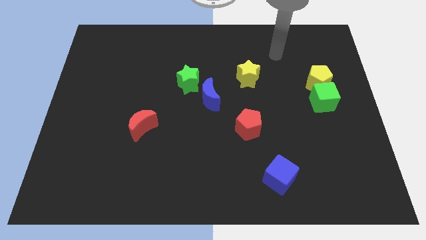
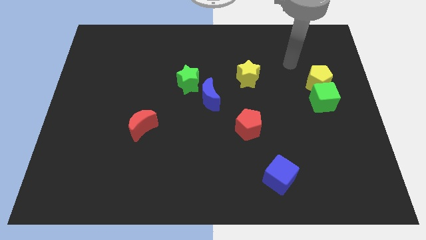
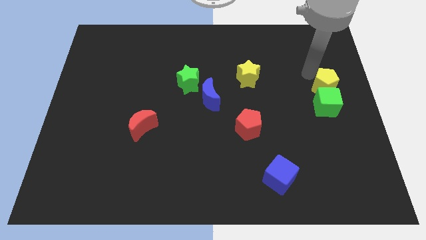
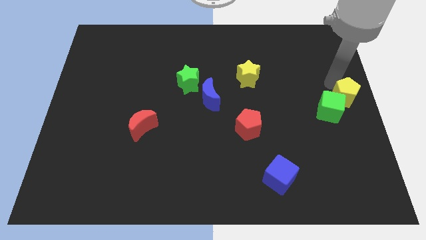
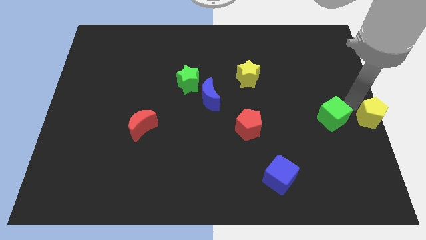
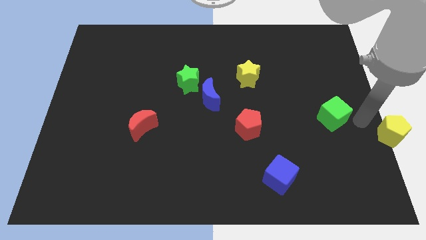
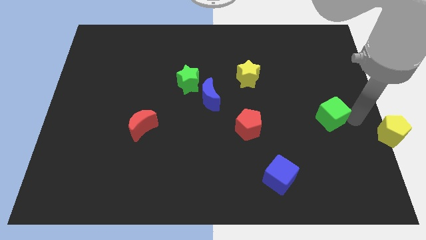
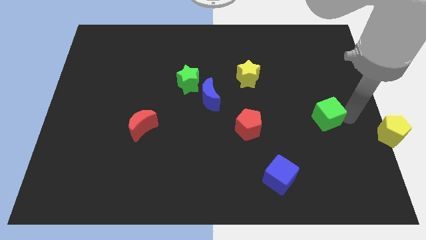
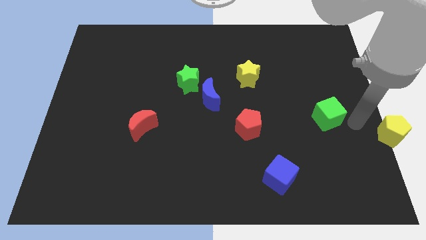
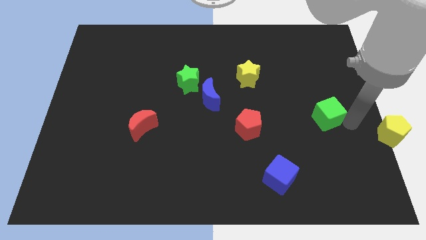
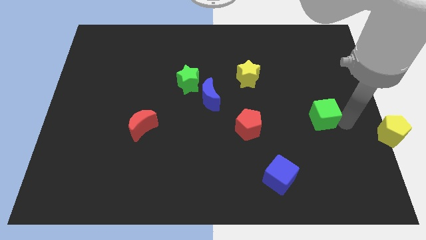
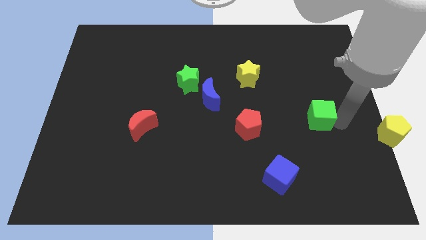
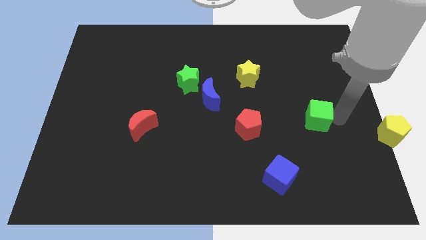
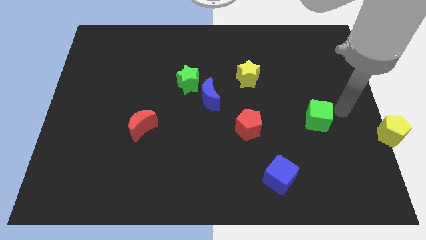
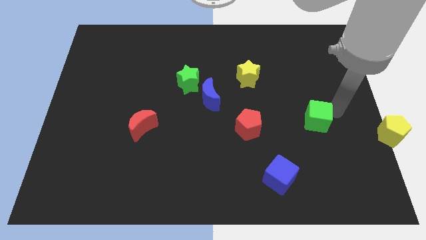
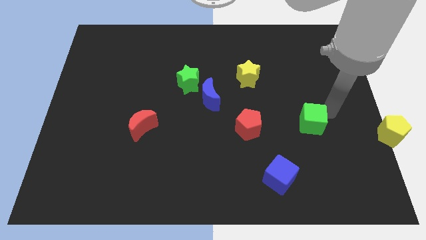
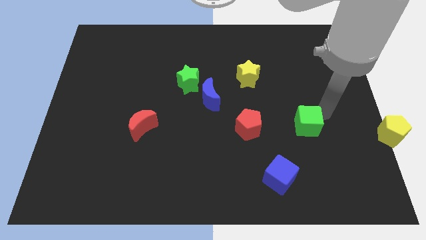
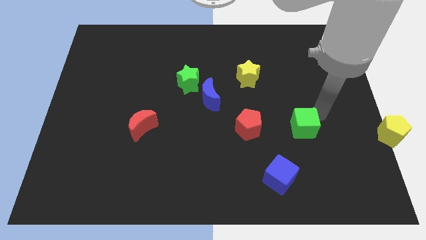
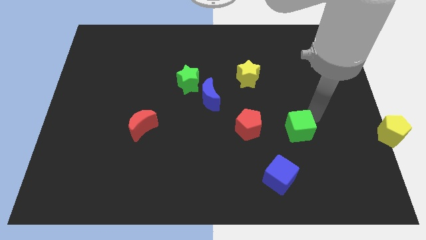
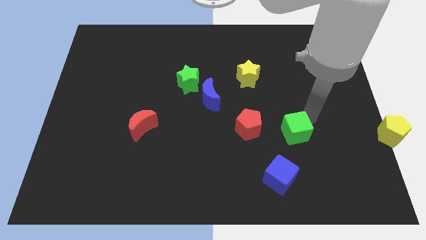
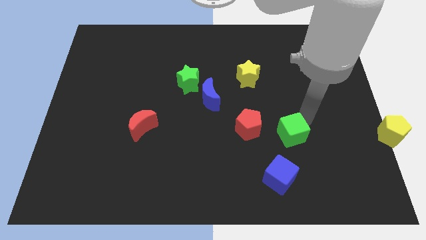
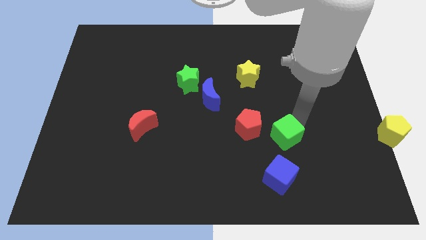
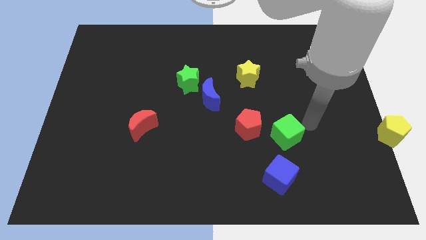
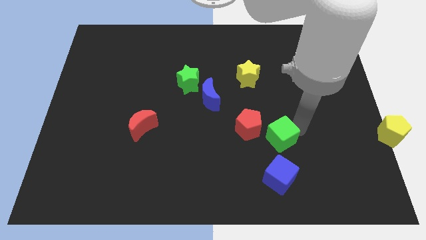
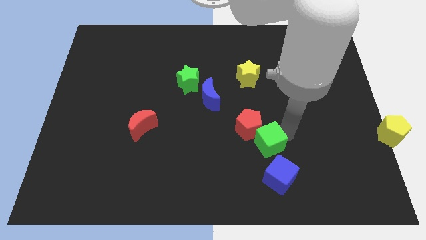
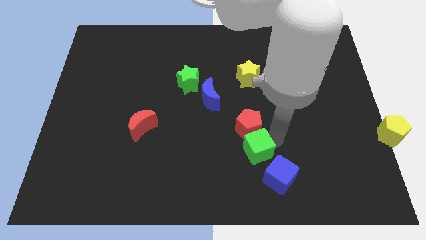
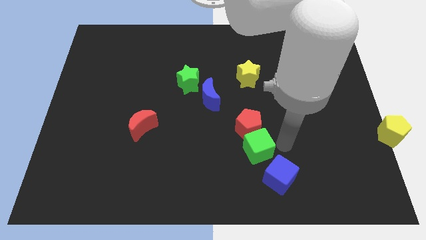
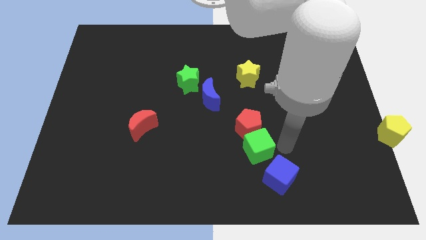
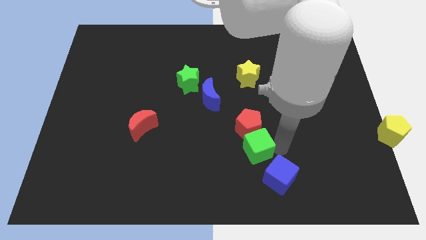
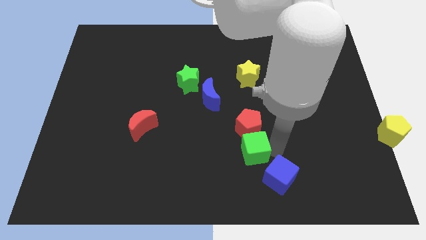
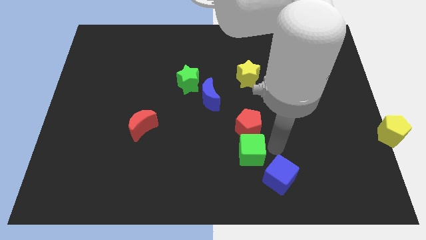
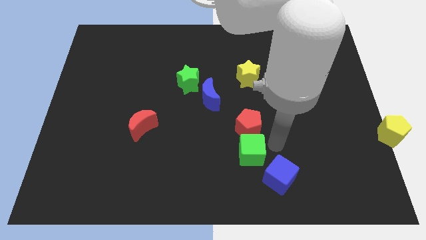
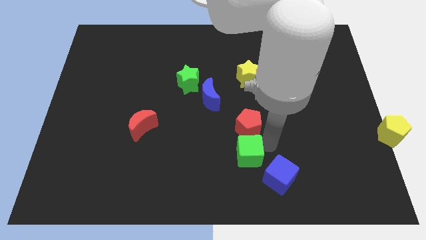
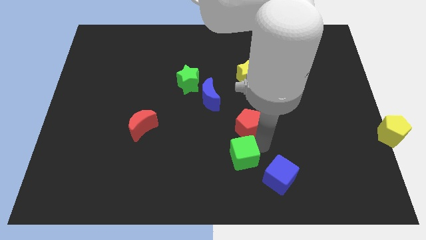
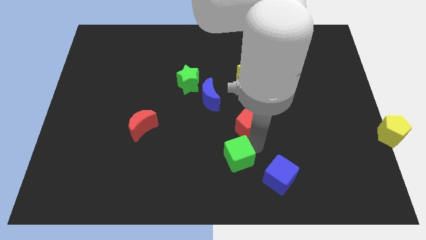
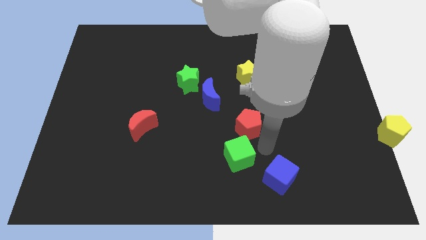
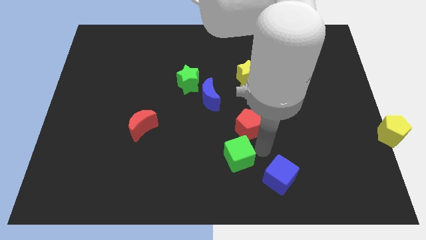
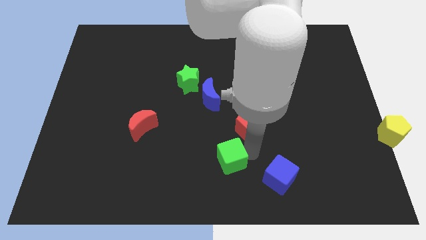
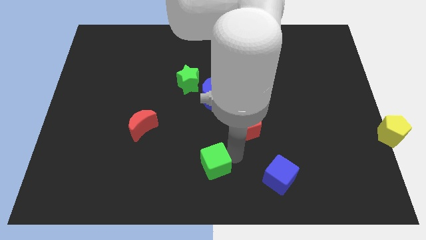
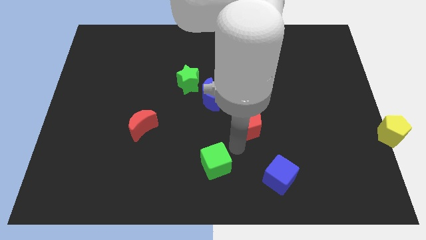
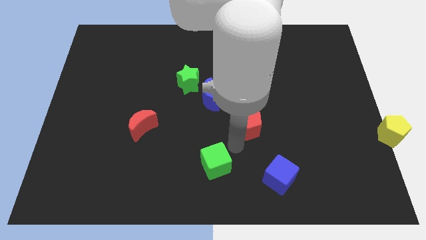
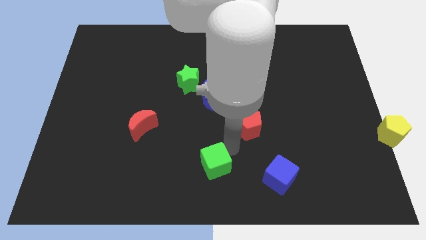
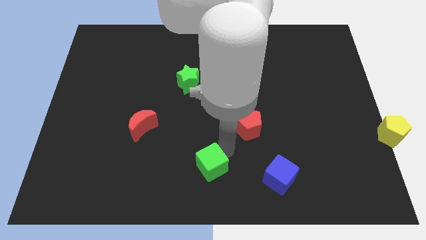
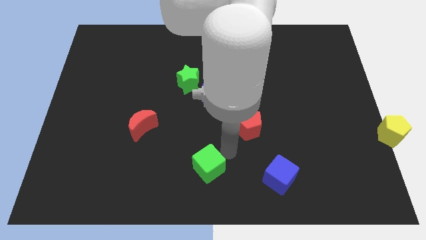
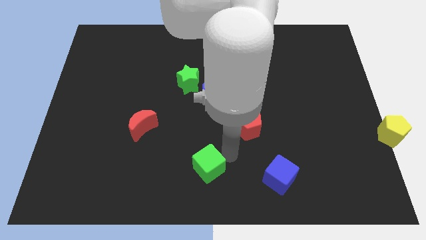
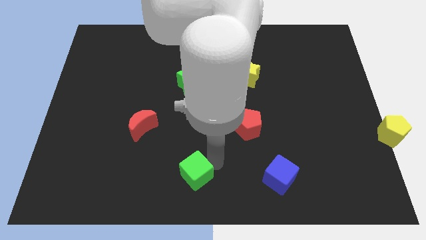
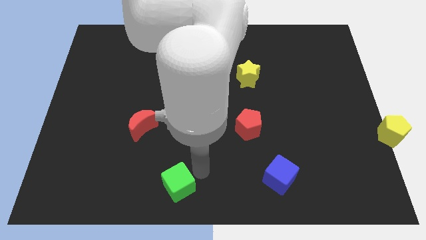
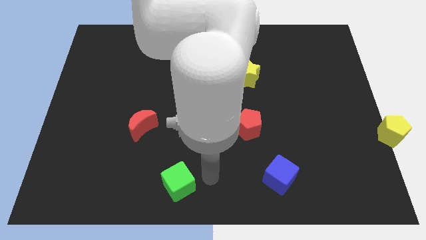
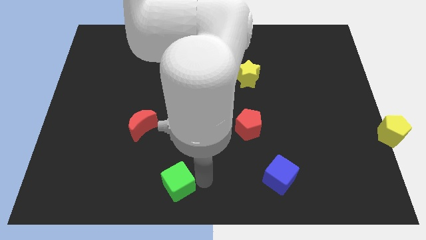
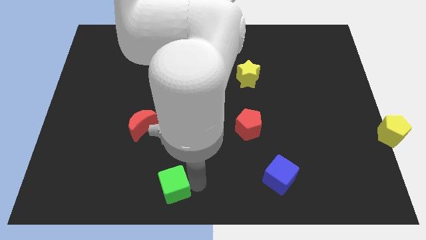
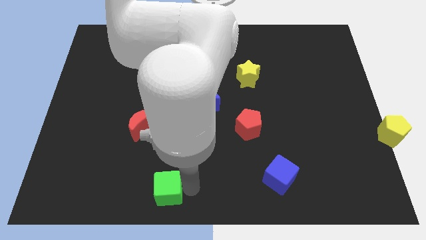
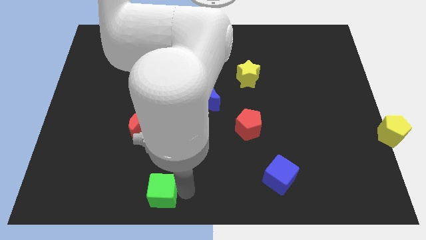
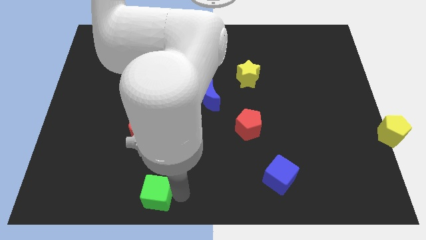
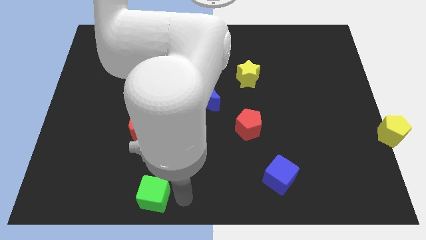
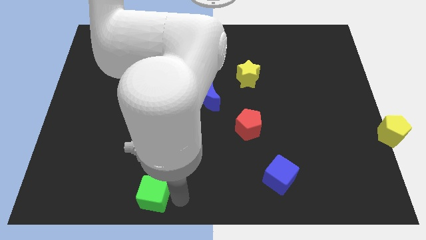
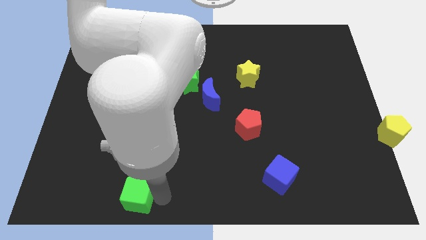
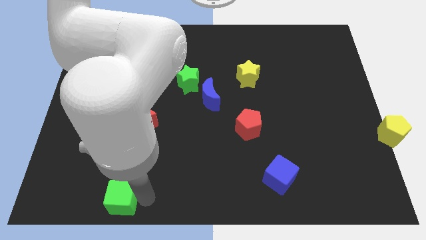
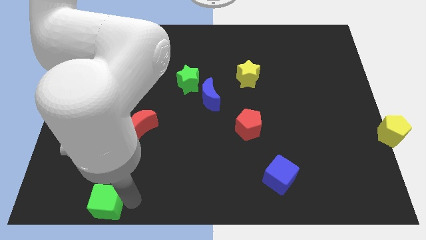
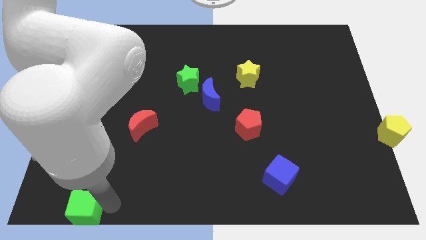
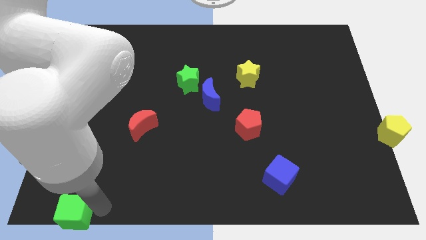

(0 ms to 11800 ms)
put the green cube to the bottom left of the board

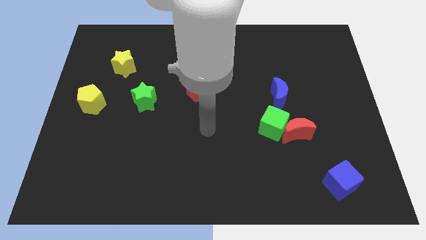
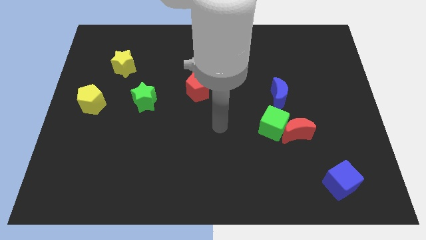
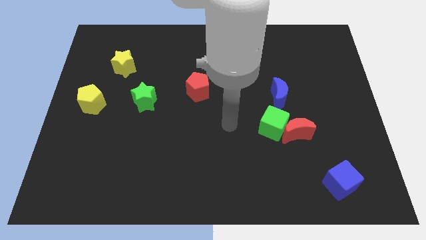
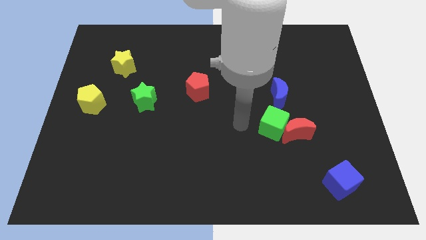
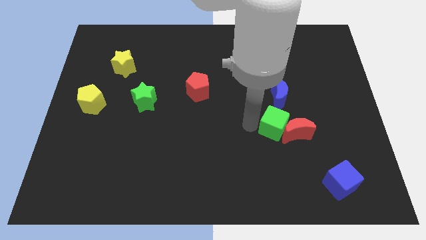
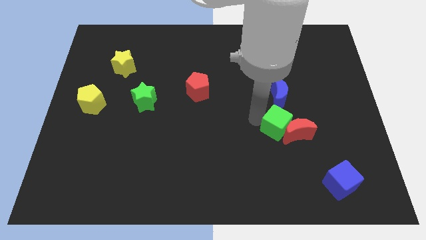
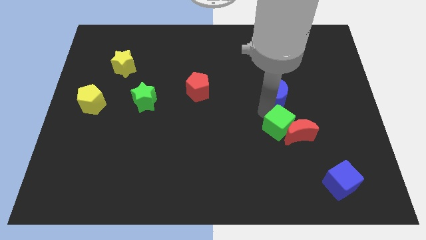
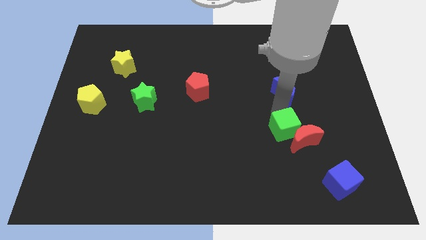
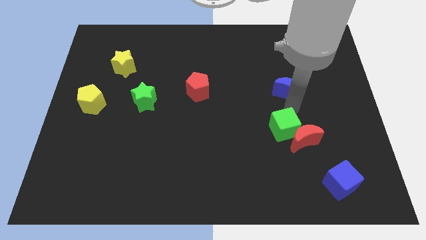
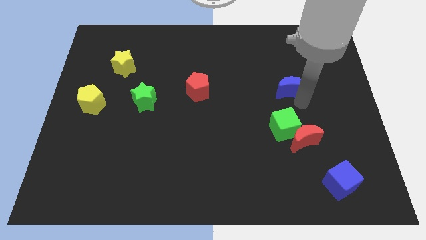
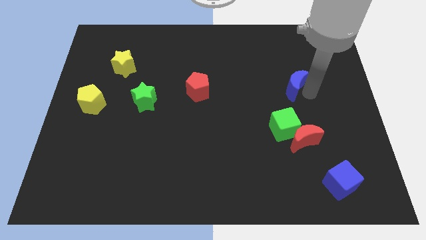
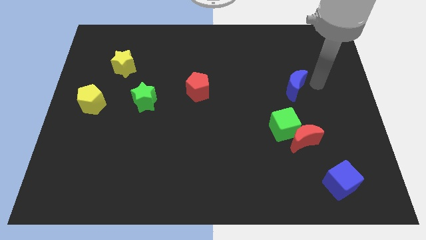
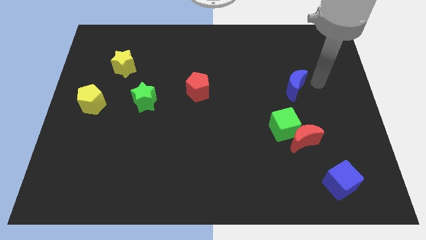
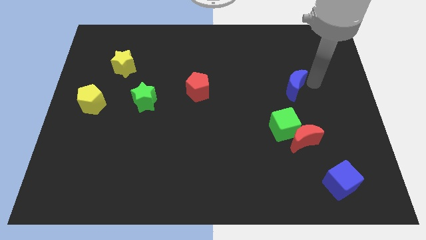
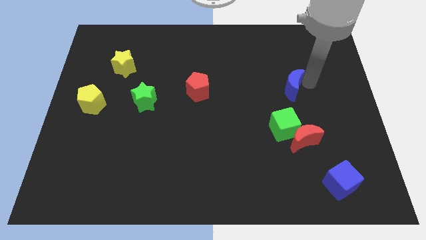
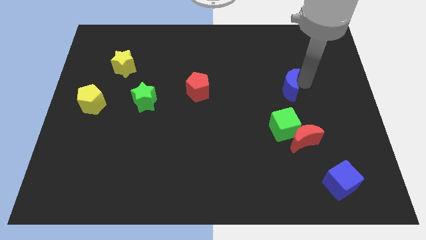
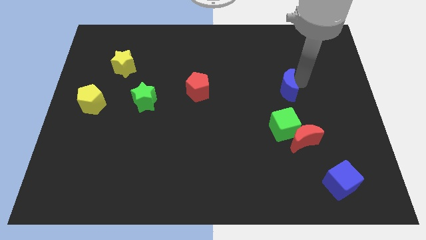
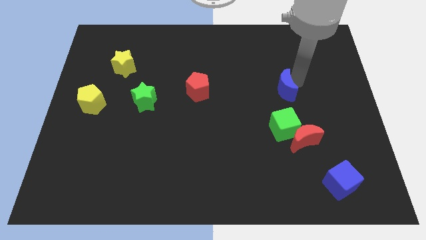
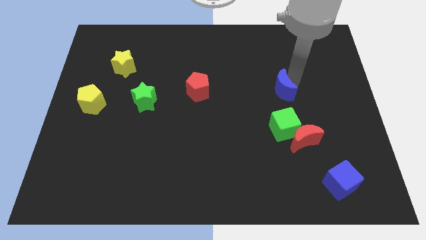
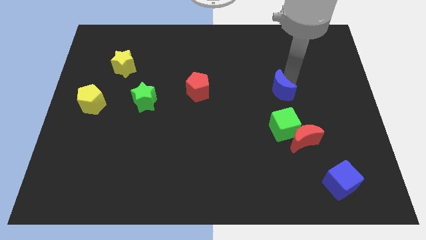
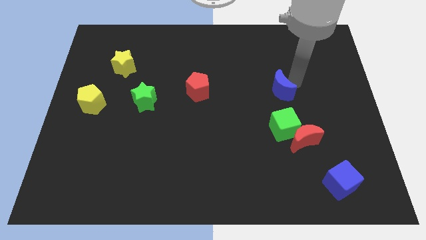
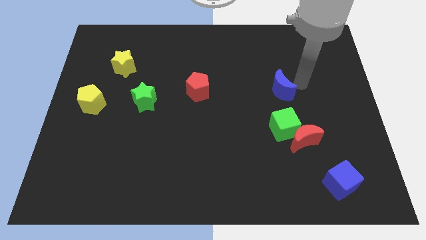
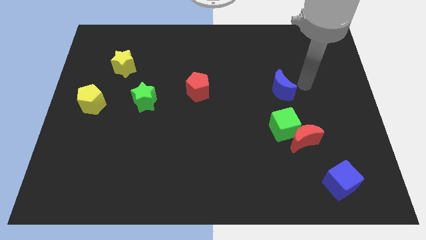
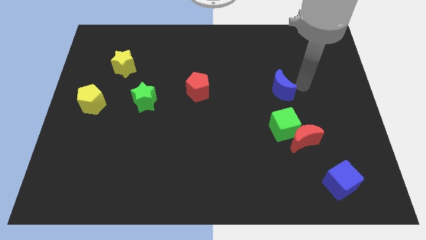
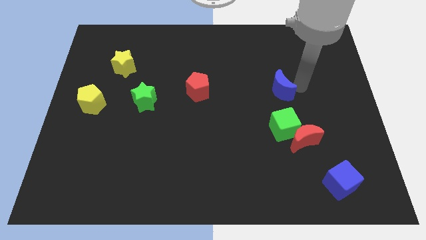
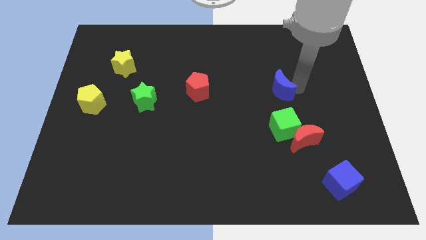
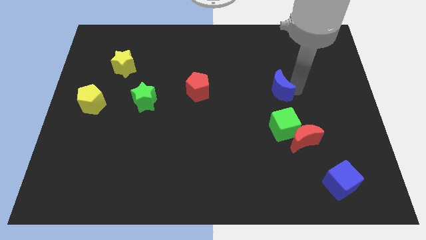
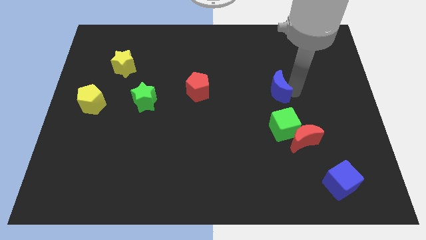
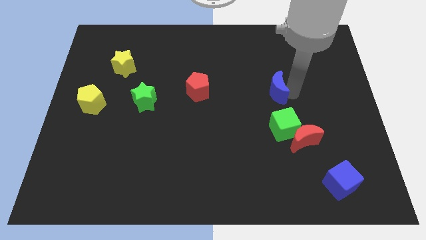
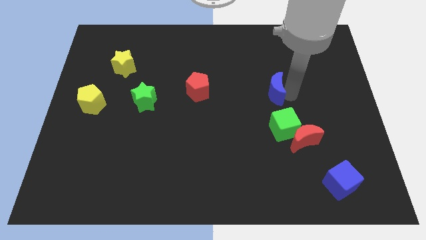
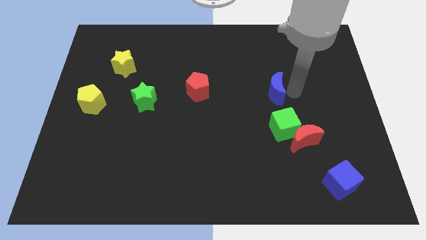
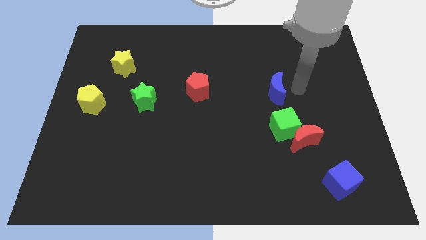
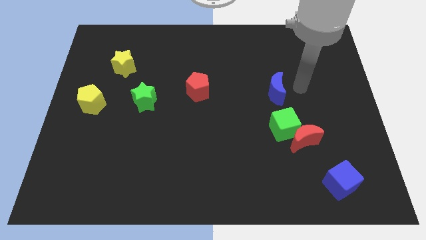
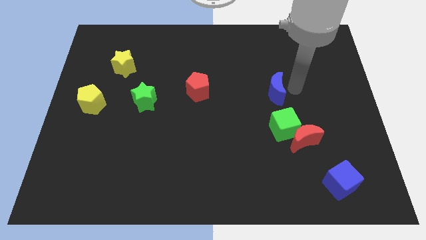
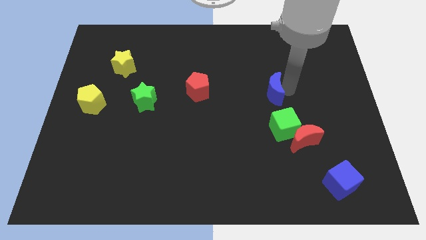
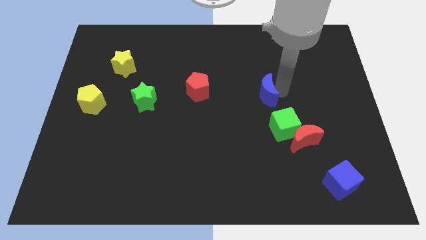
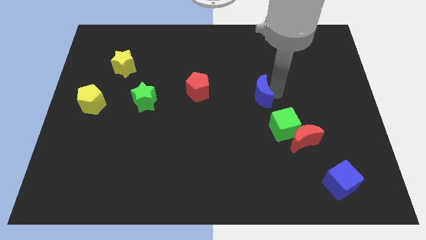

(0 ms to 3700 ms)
slide the blue moon to the center
